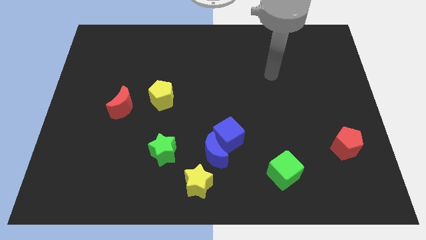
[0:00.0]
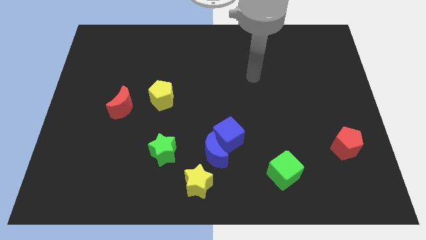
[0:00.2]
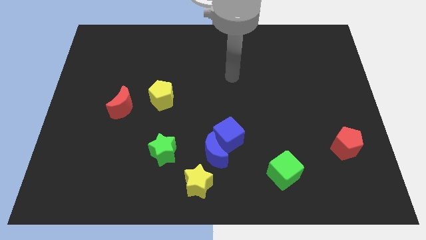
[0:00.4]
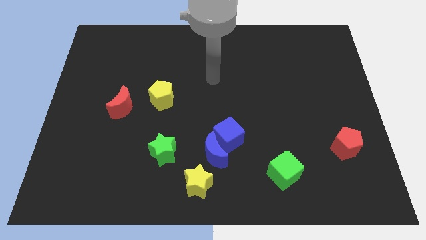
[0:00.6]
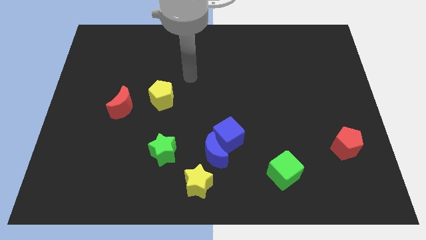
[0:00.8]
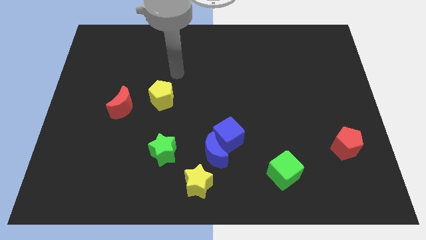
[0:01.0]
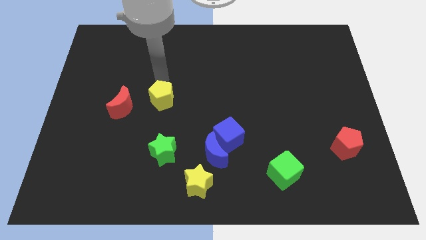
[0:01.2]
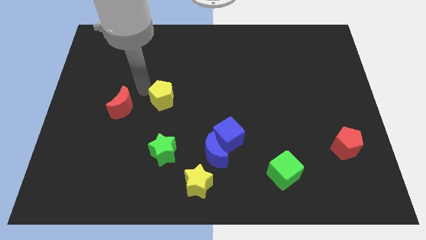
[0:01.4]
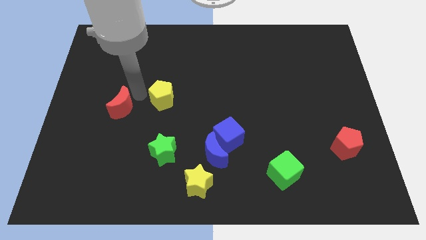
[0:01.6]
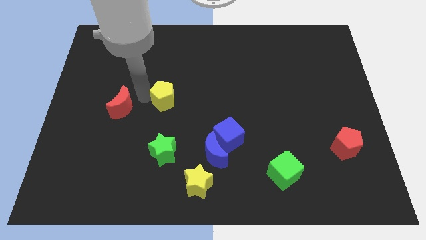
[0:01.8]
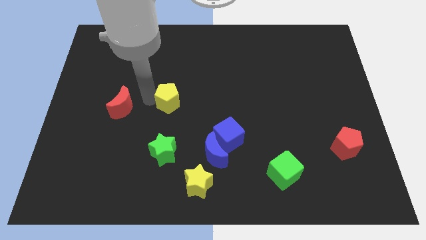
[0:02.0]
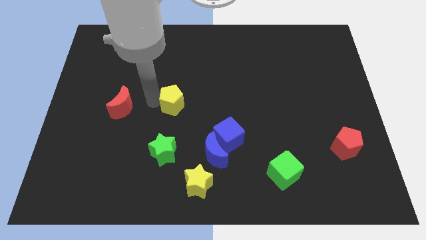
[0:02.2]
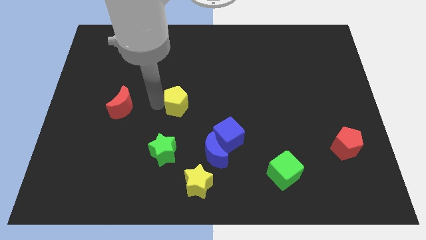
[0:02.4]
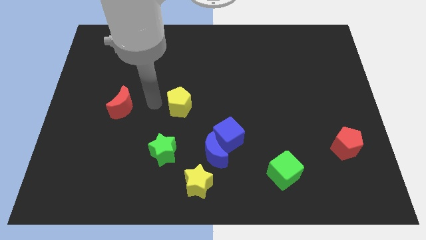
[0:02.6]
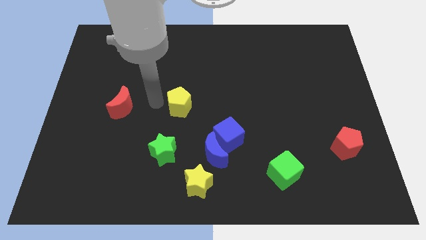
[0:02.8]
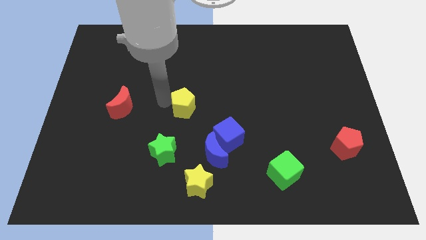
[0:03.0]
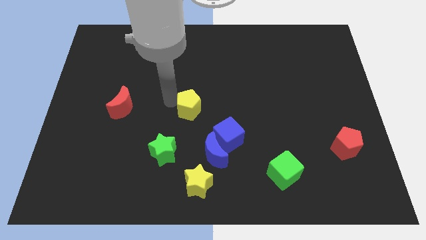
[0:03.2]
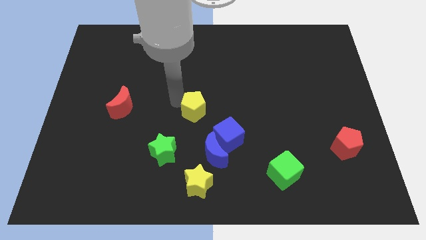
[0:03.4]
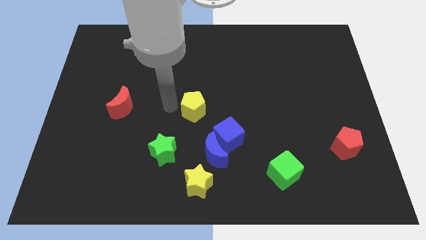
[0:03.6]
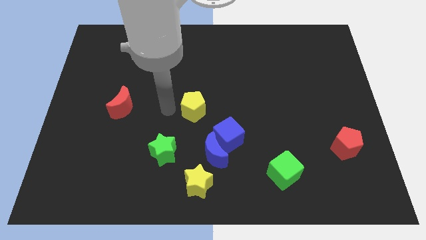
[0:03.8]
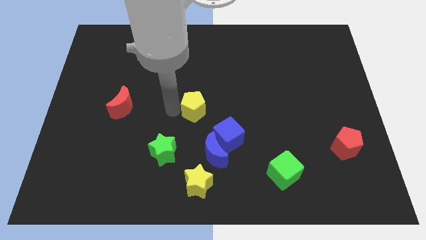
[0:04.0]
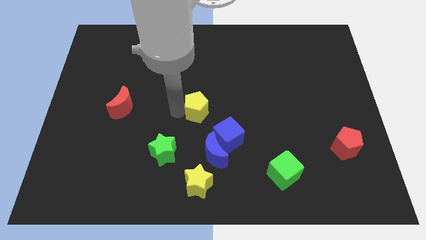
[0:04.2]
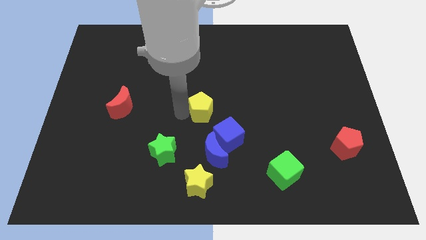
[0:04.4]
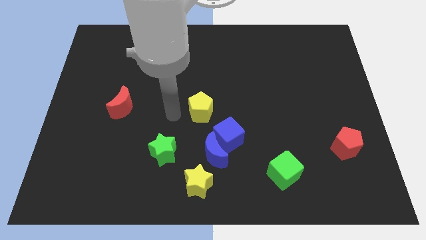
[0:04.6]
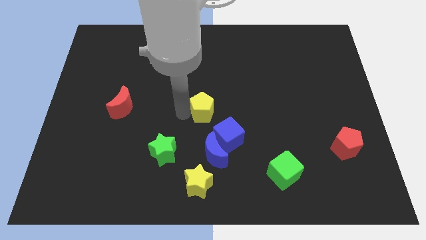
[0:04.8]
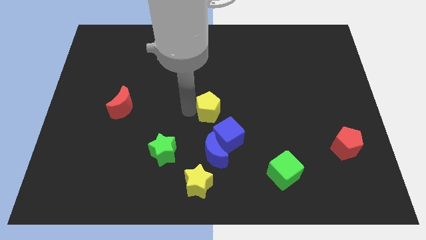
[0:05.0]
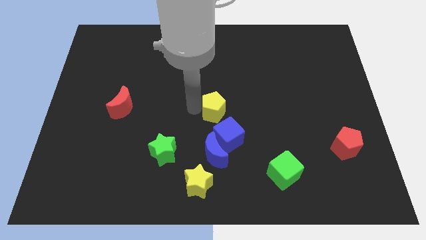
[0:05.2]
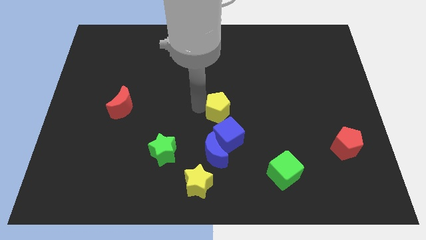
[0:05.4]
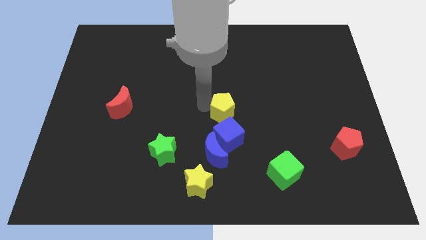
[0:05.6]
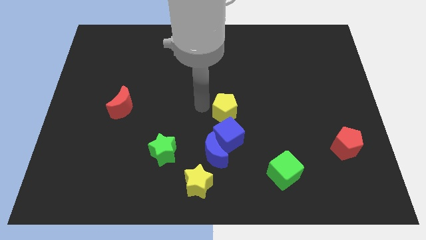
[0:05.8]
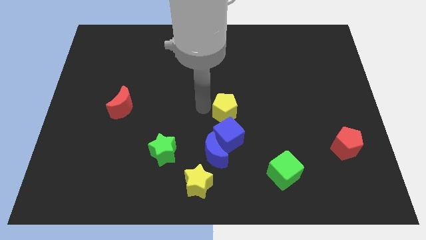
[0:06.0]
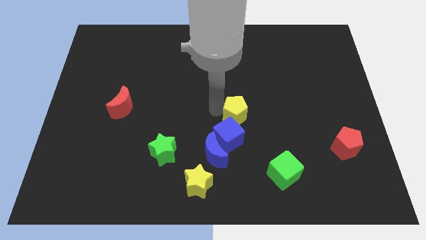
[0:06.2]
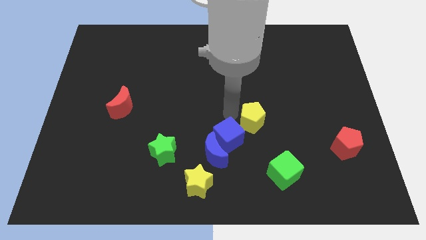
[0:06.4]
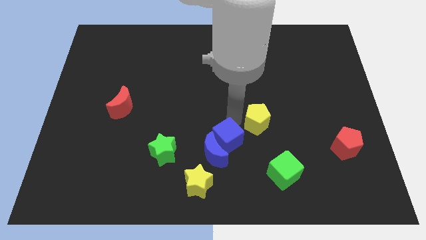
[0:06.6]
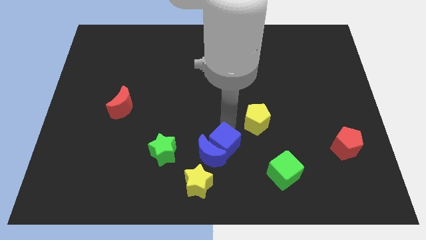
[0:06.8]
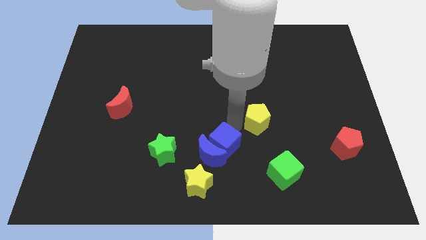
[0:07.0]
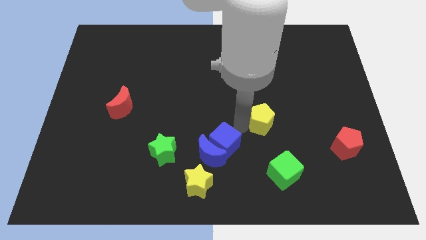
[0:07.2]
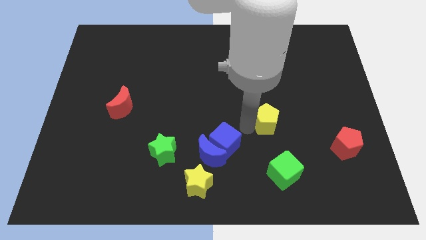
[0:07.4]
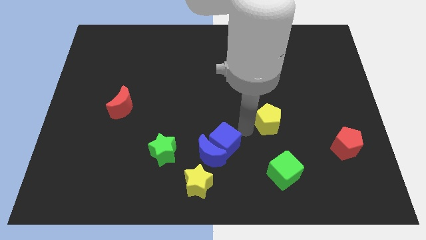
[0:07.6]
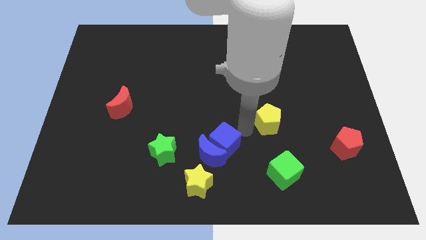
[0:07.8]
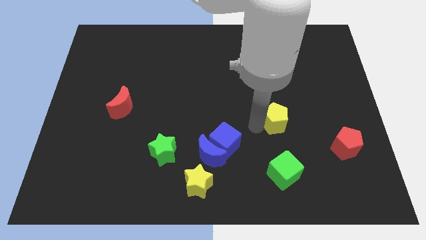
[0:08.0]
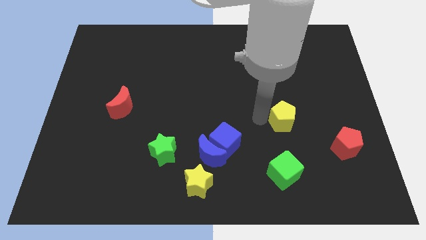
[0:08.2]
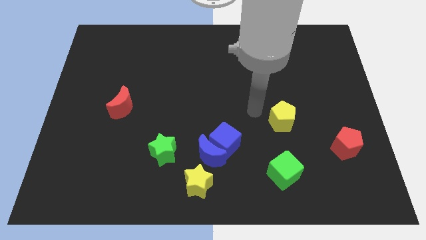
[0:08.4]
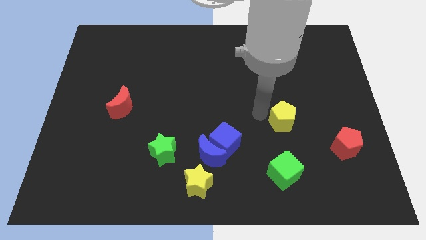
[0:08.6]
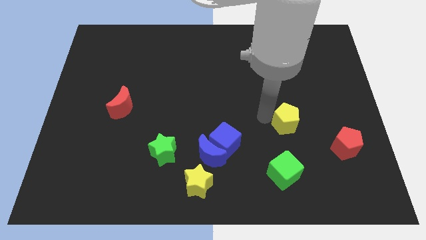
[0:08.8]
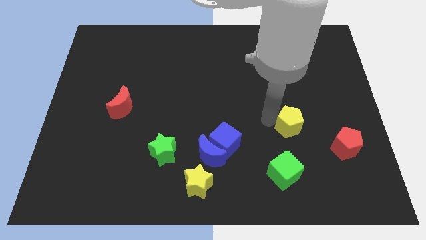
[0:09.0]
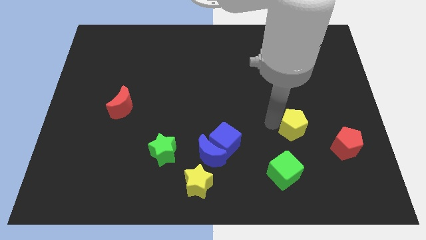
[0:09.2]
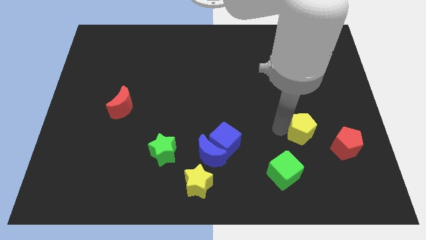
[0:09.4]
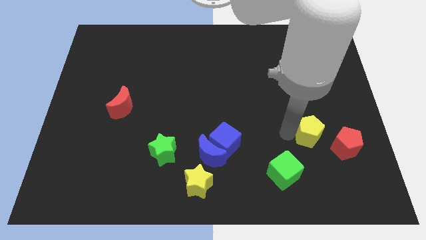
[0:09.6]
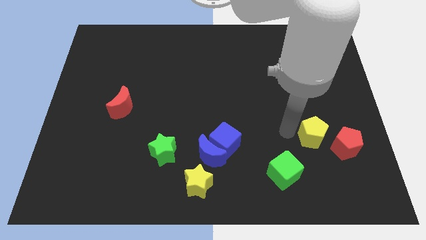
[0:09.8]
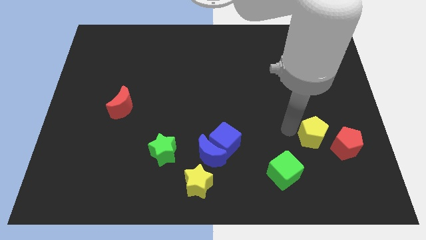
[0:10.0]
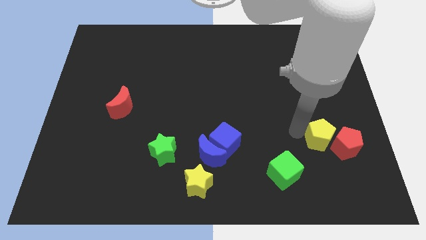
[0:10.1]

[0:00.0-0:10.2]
push the yellow pentagon towards the red pentagon

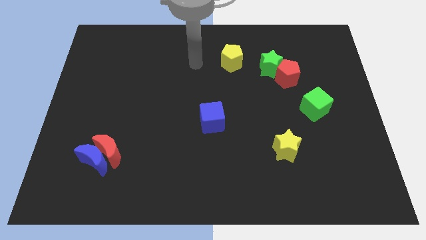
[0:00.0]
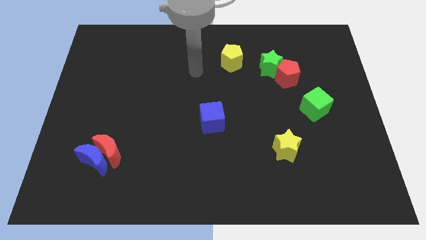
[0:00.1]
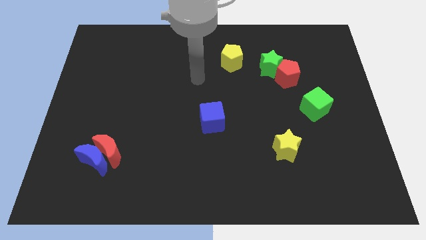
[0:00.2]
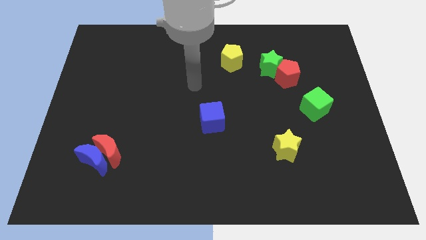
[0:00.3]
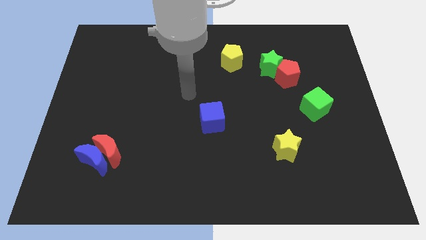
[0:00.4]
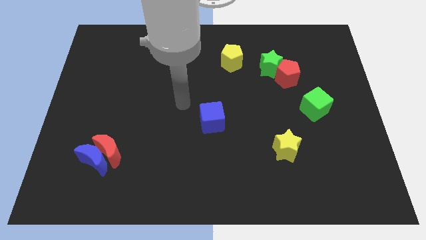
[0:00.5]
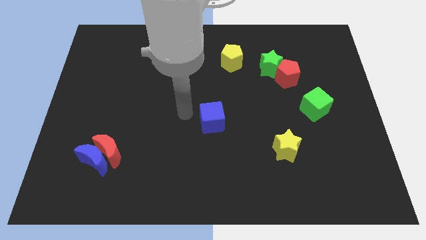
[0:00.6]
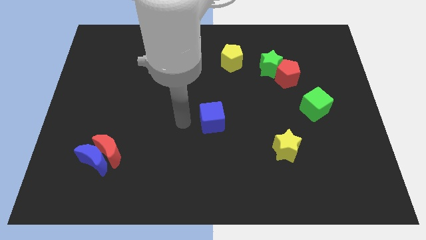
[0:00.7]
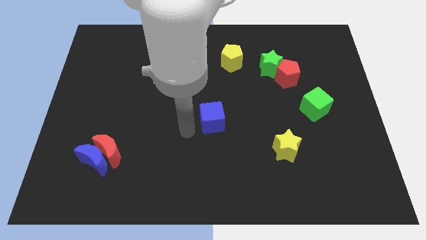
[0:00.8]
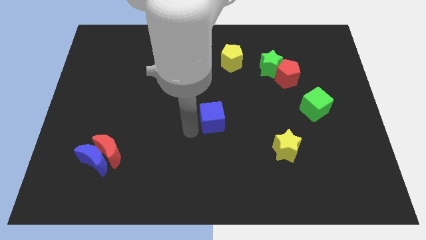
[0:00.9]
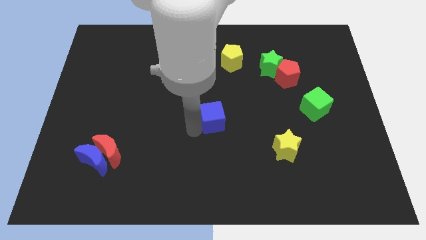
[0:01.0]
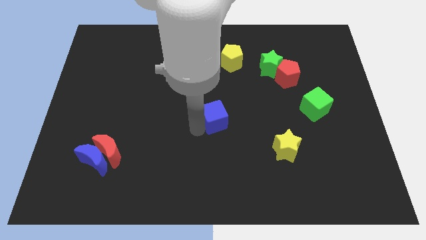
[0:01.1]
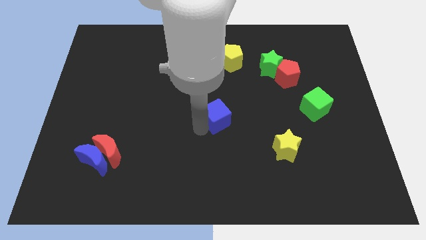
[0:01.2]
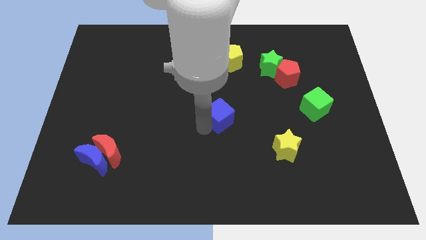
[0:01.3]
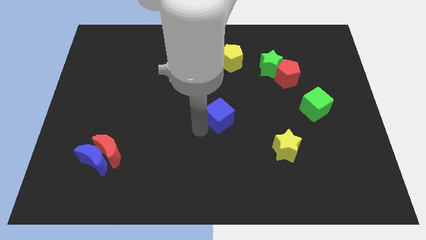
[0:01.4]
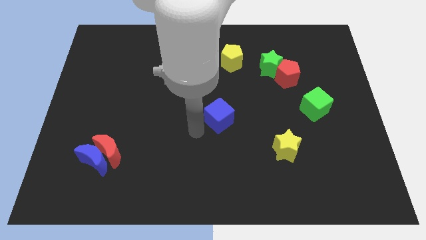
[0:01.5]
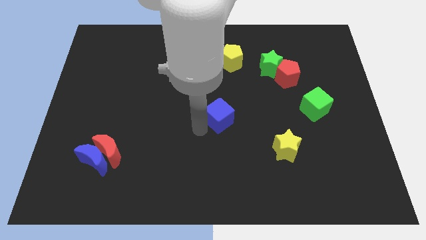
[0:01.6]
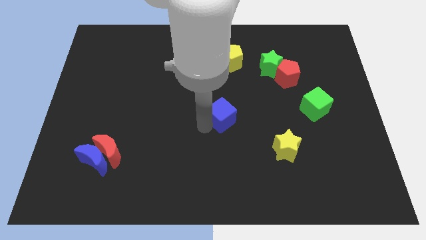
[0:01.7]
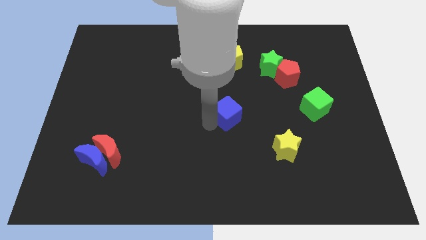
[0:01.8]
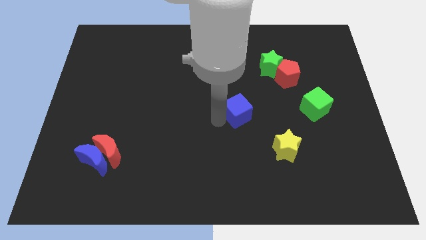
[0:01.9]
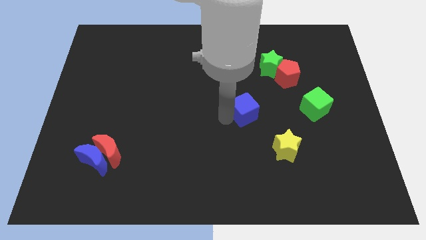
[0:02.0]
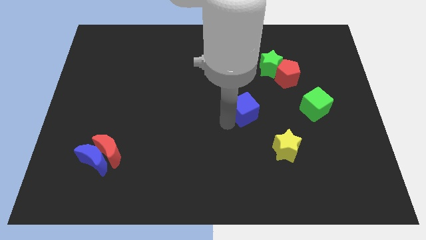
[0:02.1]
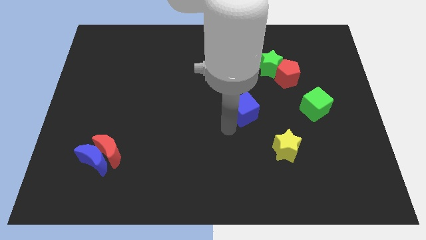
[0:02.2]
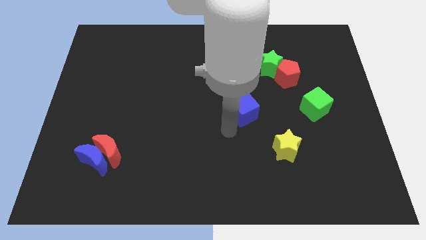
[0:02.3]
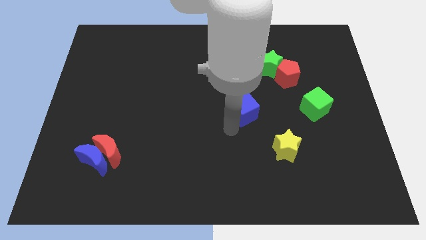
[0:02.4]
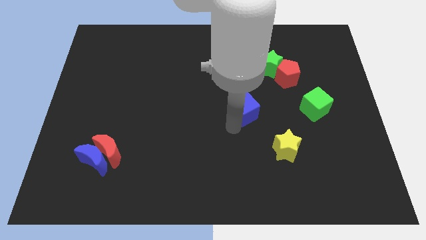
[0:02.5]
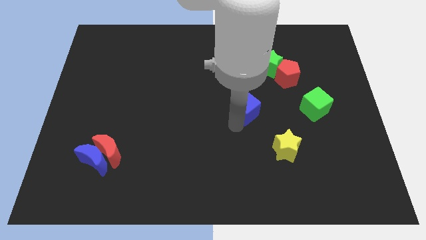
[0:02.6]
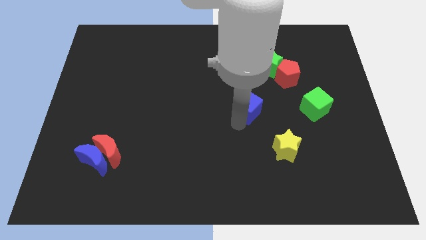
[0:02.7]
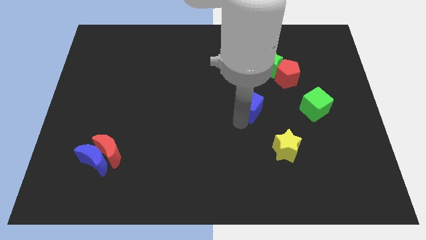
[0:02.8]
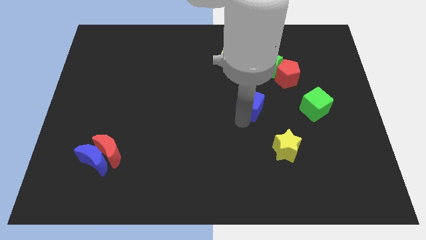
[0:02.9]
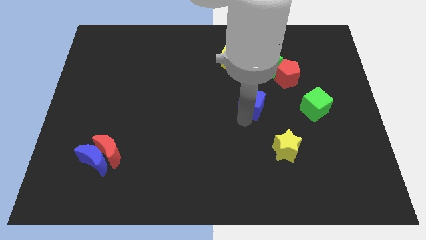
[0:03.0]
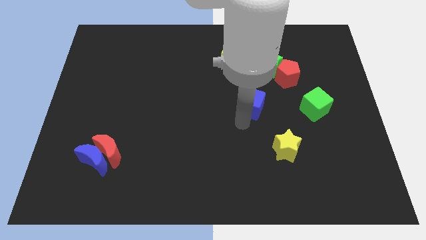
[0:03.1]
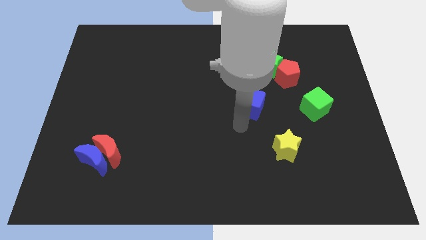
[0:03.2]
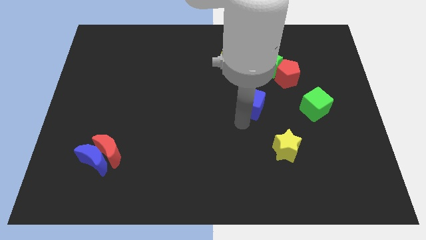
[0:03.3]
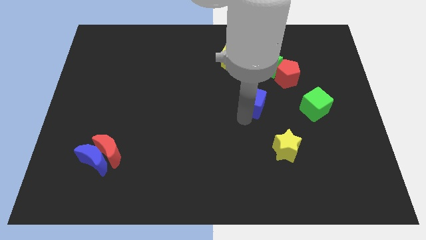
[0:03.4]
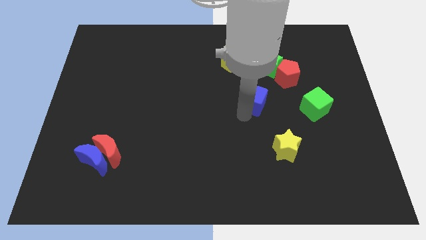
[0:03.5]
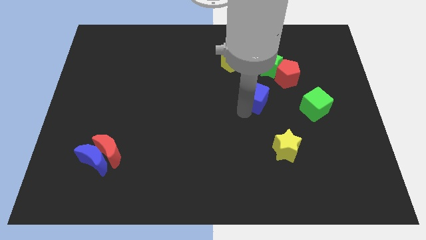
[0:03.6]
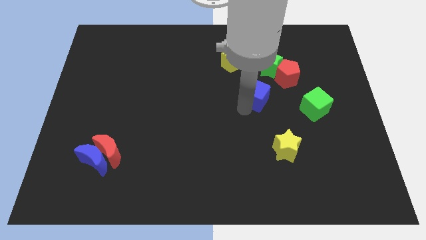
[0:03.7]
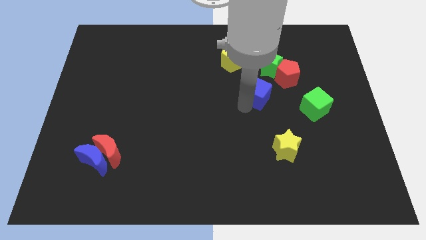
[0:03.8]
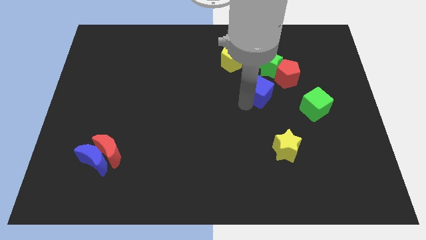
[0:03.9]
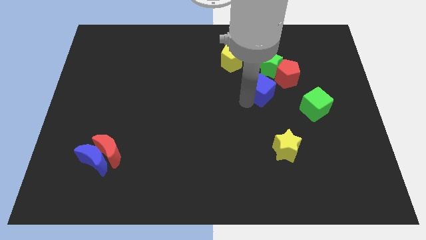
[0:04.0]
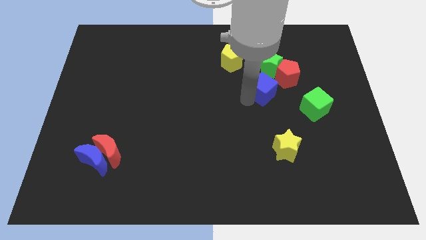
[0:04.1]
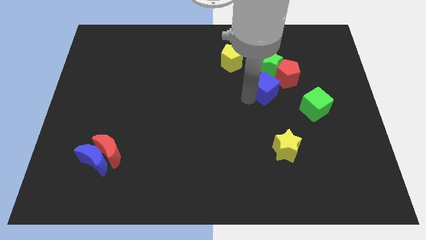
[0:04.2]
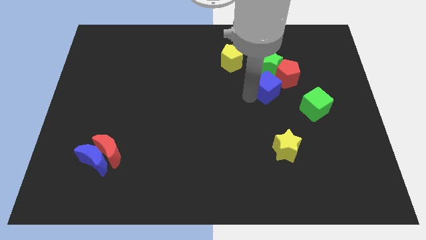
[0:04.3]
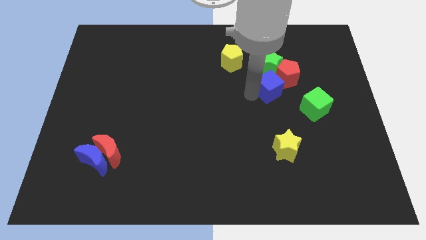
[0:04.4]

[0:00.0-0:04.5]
move the blue cube towards the red pentagon
